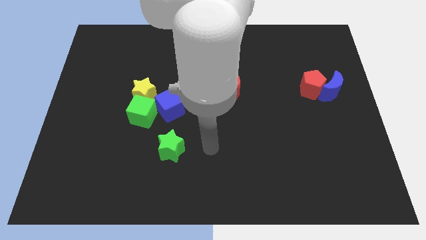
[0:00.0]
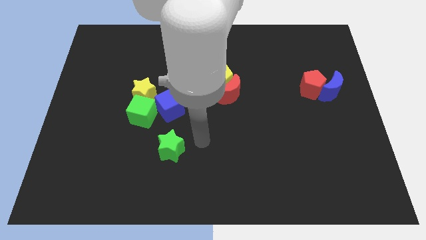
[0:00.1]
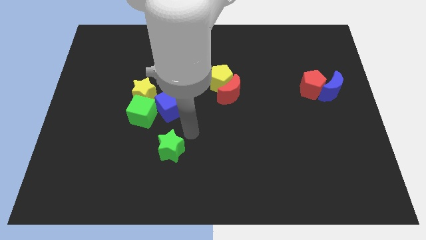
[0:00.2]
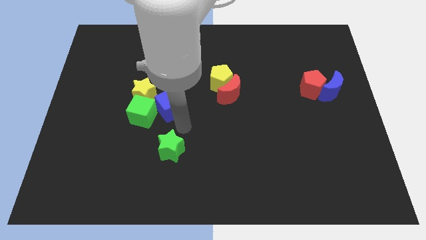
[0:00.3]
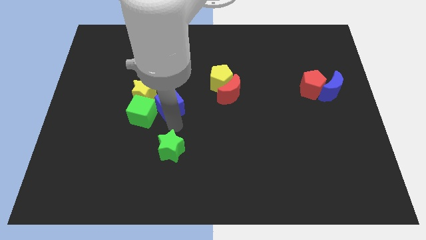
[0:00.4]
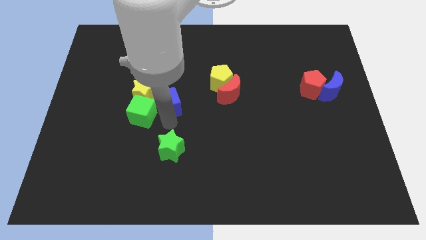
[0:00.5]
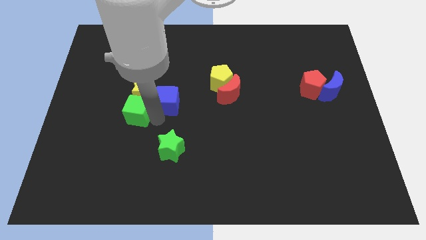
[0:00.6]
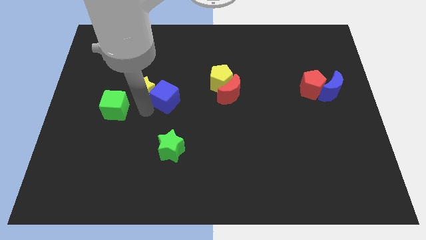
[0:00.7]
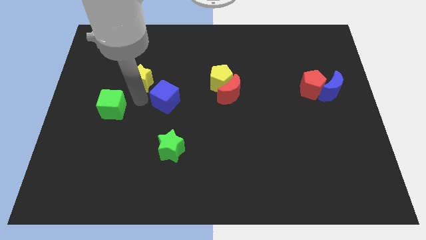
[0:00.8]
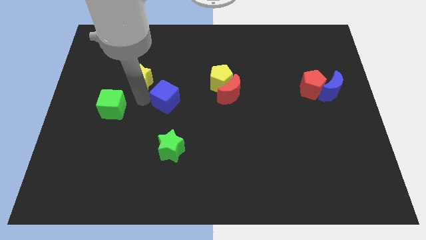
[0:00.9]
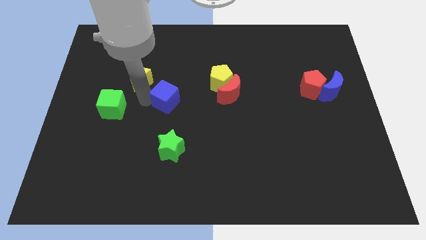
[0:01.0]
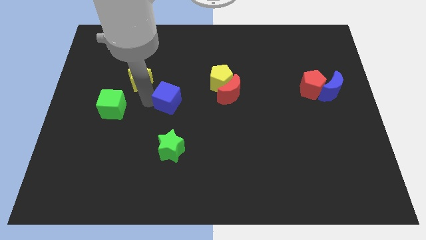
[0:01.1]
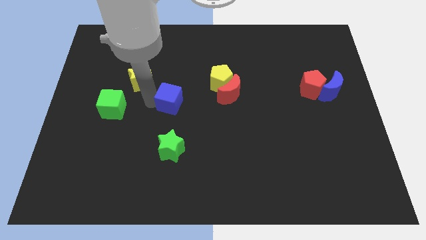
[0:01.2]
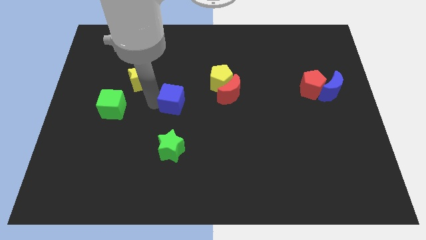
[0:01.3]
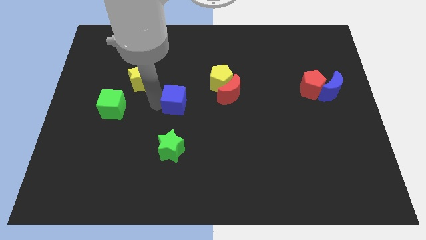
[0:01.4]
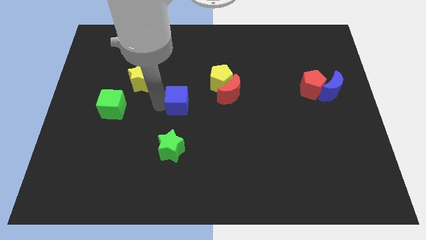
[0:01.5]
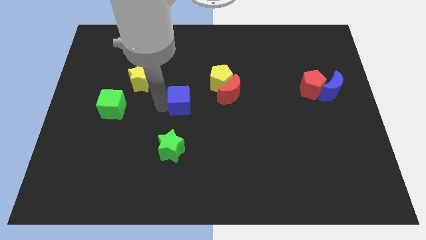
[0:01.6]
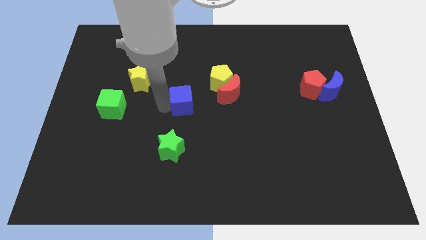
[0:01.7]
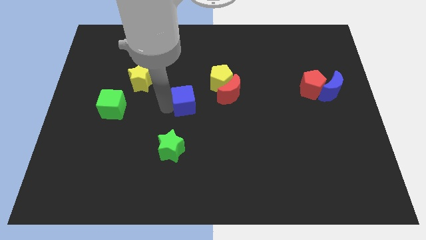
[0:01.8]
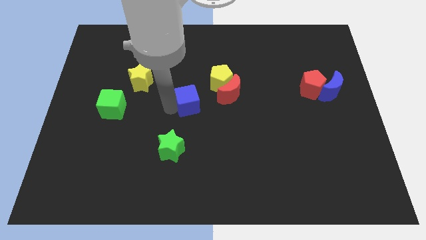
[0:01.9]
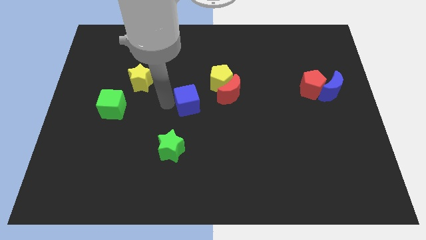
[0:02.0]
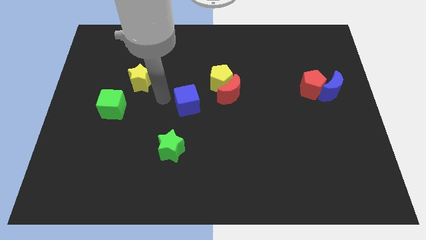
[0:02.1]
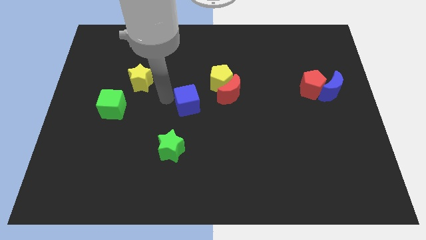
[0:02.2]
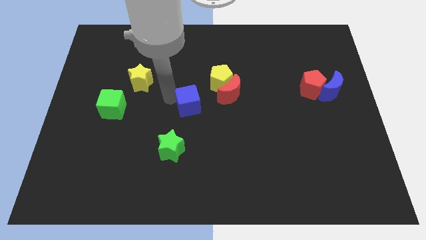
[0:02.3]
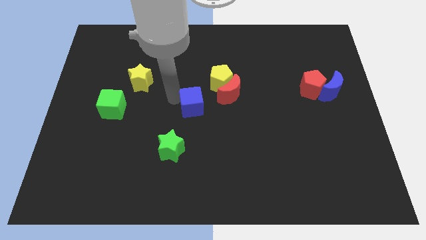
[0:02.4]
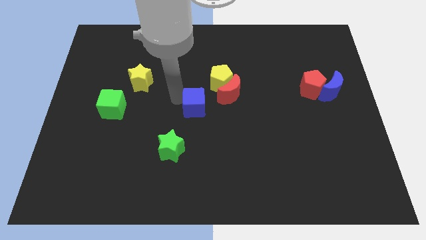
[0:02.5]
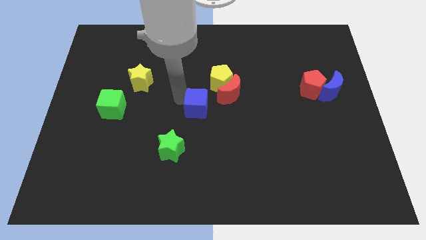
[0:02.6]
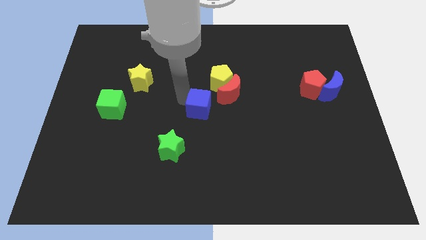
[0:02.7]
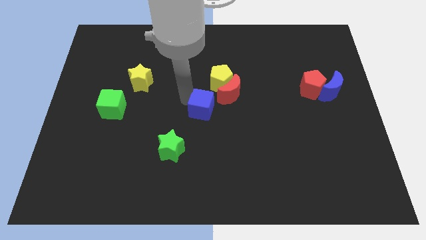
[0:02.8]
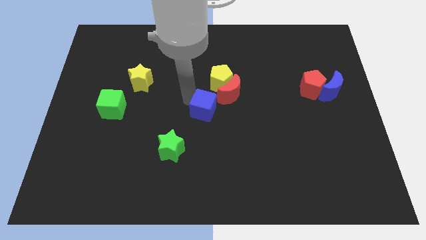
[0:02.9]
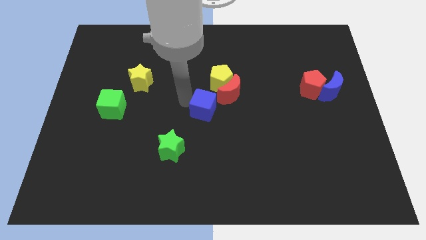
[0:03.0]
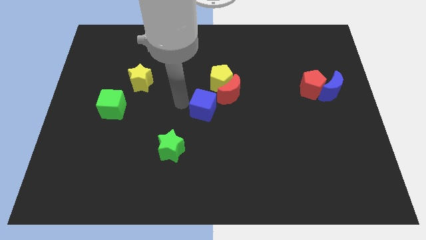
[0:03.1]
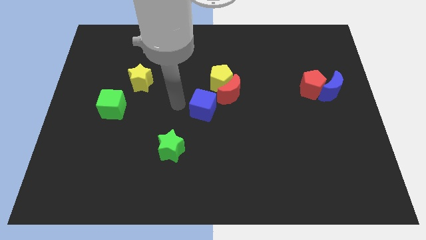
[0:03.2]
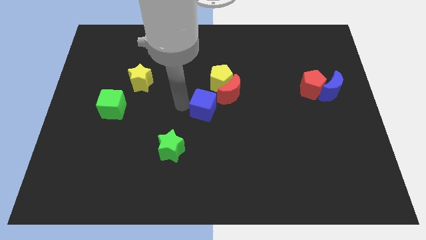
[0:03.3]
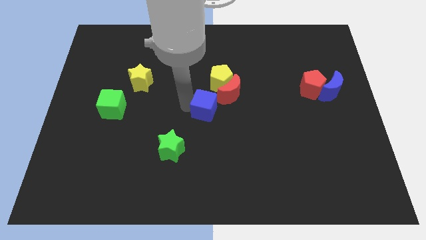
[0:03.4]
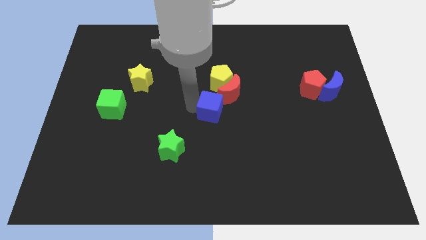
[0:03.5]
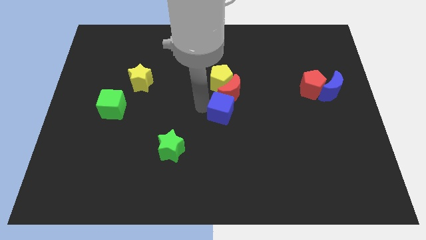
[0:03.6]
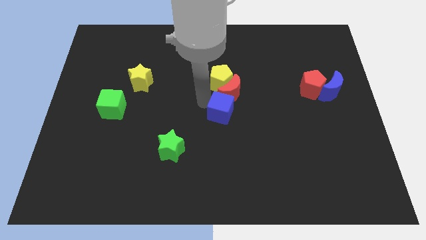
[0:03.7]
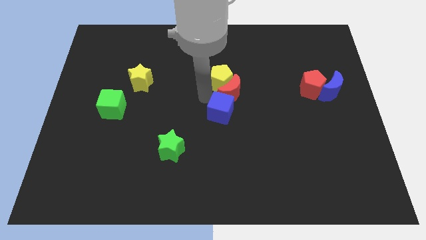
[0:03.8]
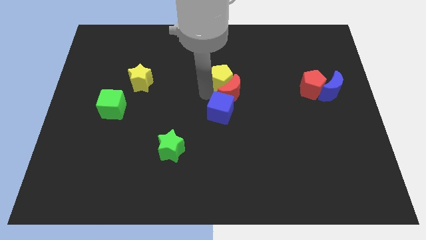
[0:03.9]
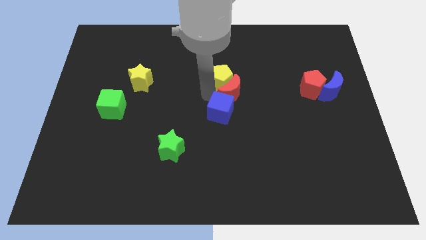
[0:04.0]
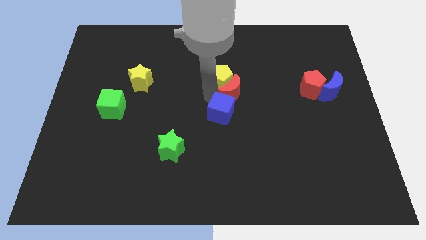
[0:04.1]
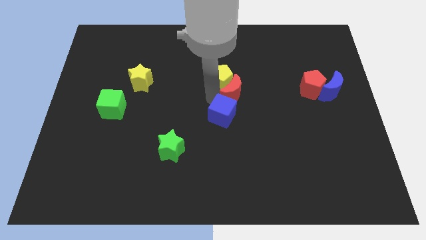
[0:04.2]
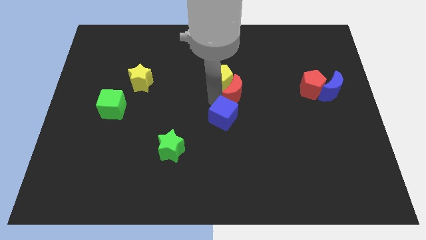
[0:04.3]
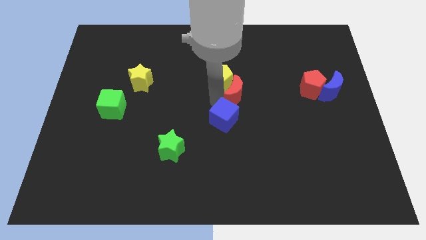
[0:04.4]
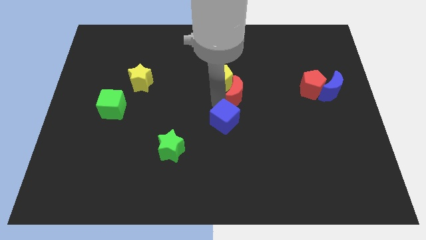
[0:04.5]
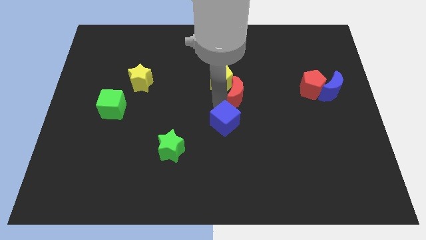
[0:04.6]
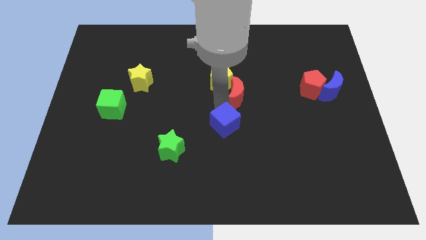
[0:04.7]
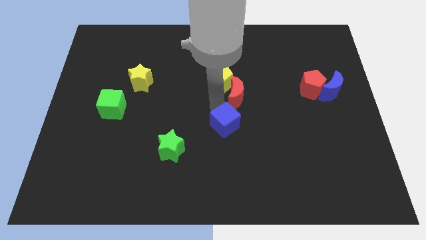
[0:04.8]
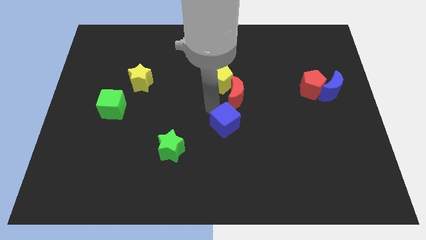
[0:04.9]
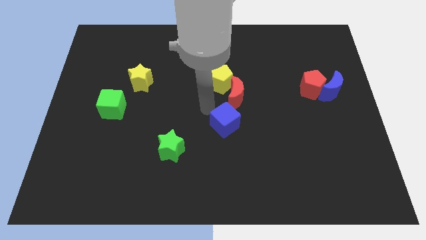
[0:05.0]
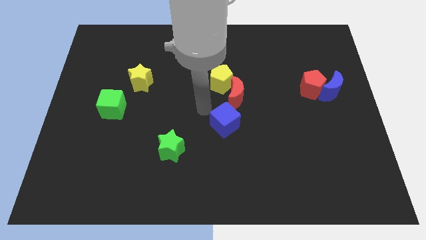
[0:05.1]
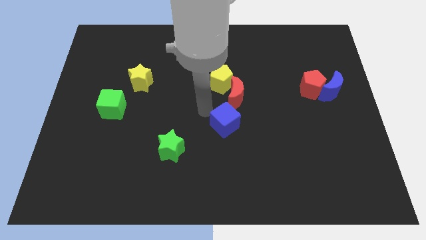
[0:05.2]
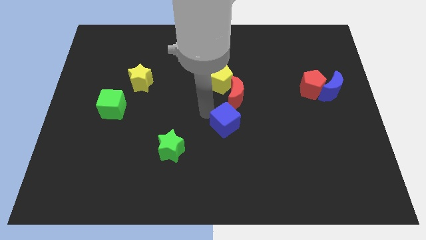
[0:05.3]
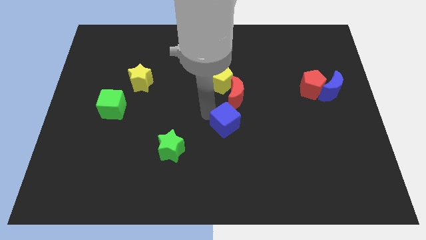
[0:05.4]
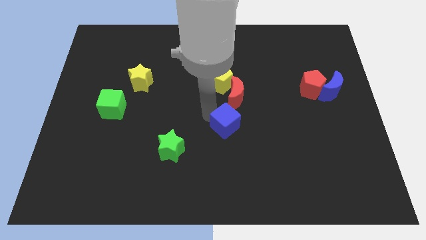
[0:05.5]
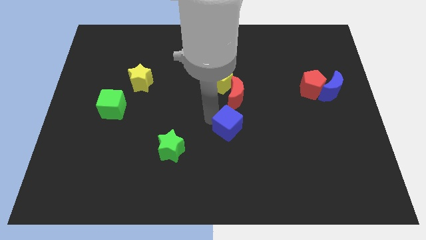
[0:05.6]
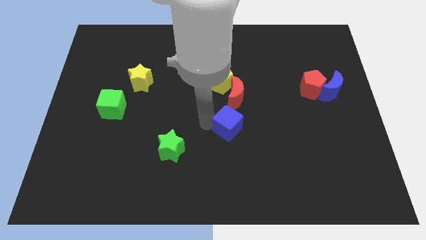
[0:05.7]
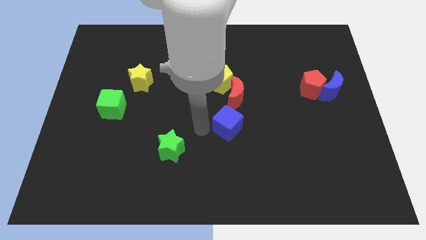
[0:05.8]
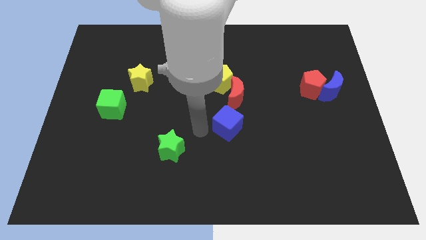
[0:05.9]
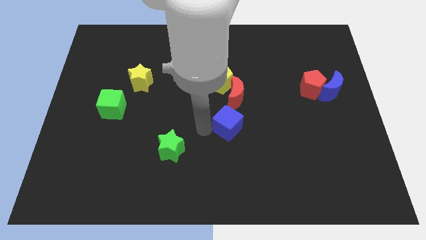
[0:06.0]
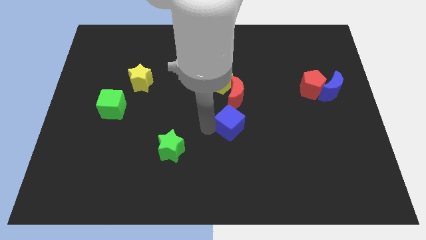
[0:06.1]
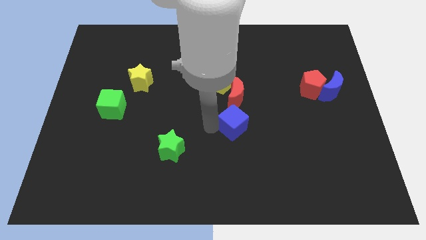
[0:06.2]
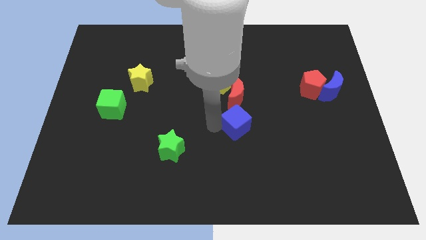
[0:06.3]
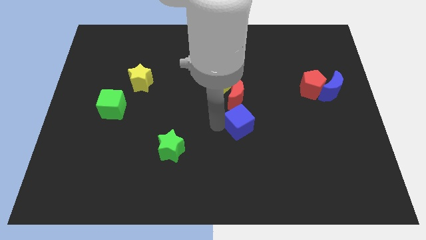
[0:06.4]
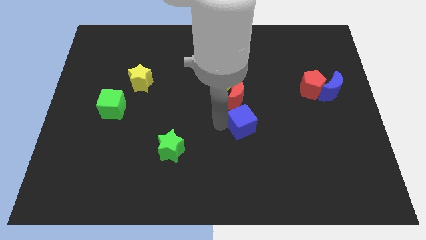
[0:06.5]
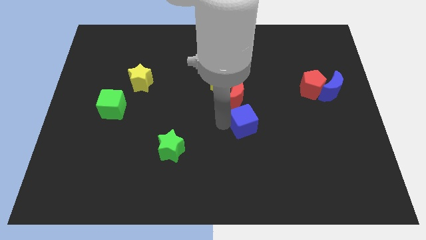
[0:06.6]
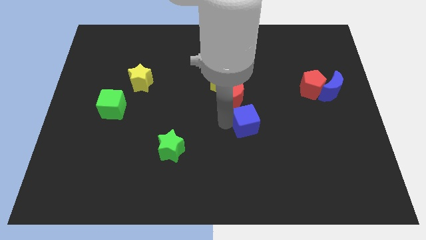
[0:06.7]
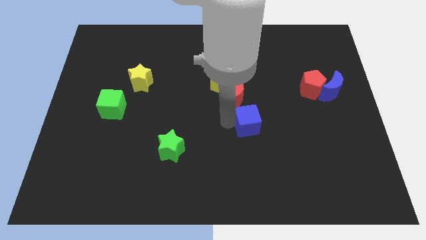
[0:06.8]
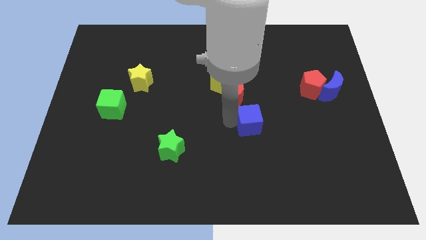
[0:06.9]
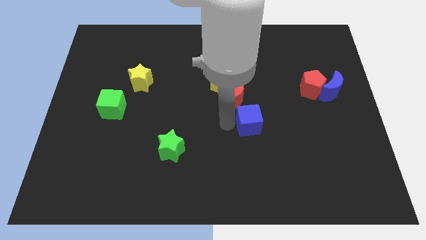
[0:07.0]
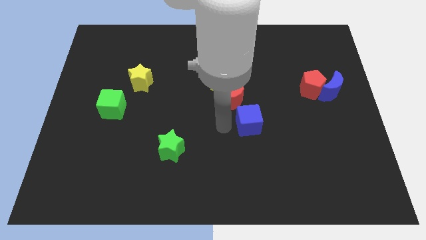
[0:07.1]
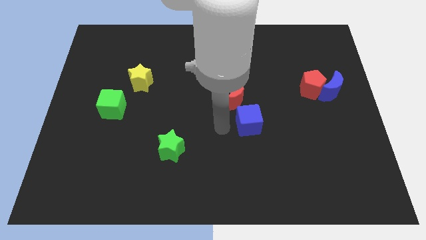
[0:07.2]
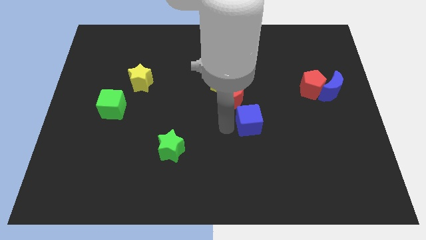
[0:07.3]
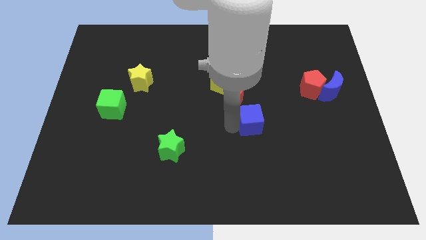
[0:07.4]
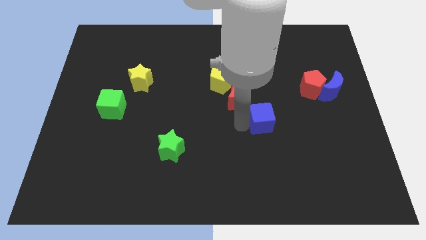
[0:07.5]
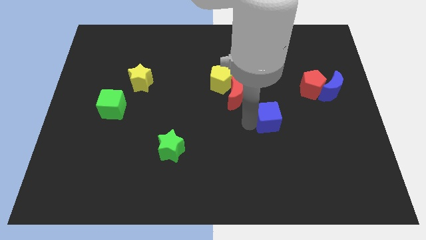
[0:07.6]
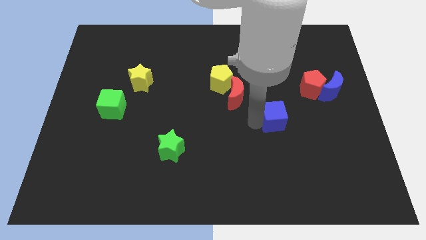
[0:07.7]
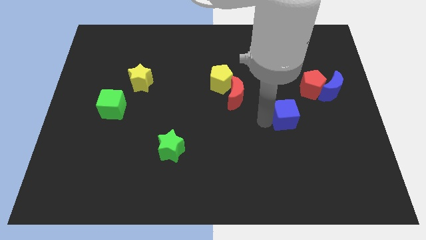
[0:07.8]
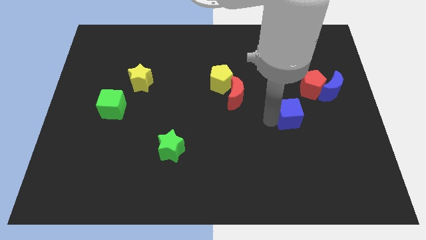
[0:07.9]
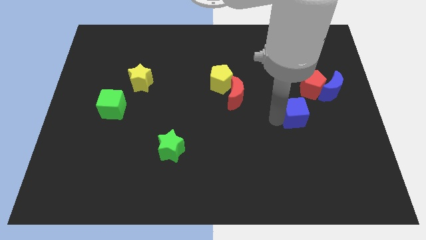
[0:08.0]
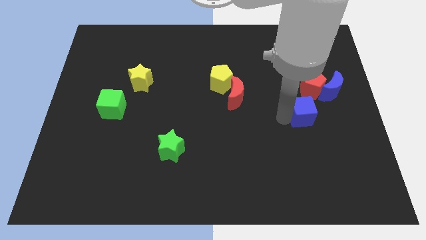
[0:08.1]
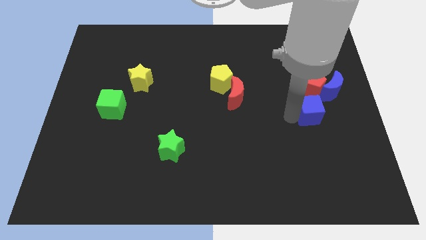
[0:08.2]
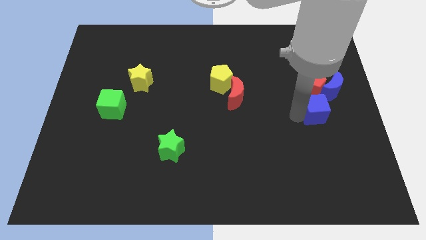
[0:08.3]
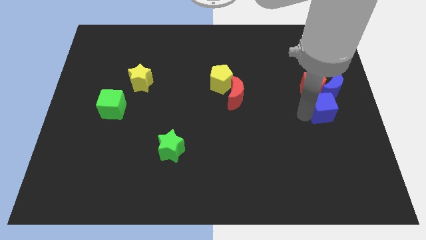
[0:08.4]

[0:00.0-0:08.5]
put the blue cube to the right side
